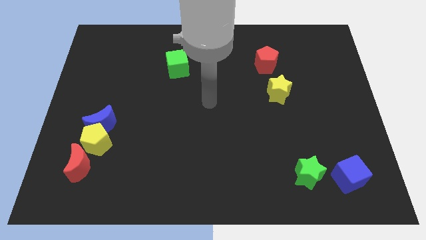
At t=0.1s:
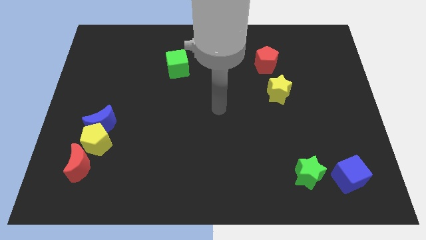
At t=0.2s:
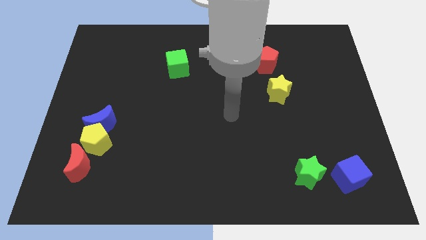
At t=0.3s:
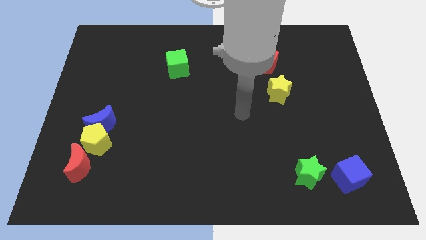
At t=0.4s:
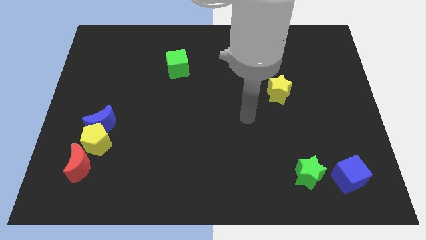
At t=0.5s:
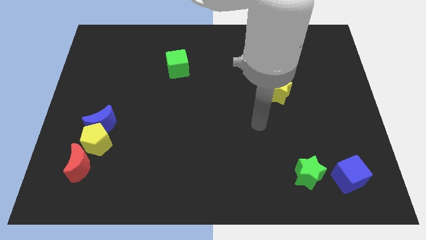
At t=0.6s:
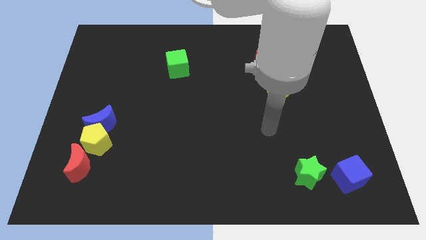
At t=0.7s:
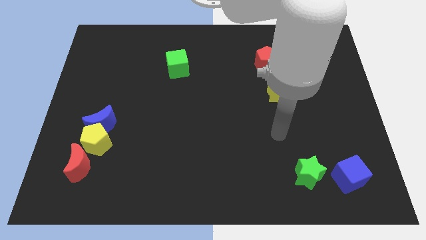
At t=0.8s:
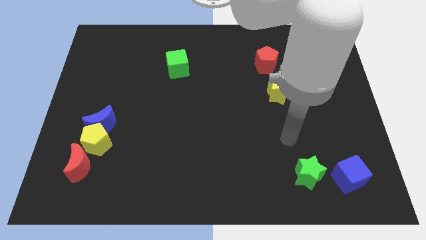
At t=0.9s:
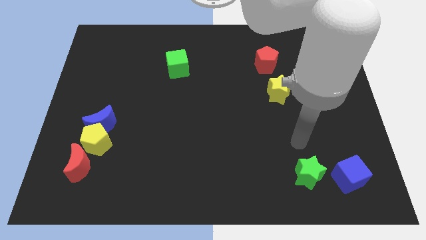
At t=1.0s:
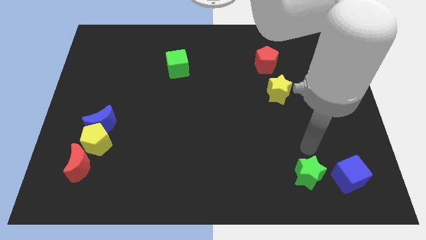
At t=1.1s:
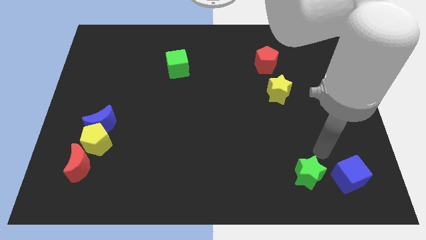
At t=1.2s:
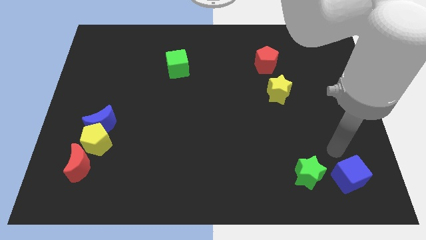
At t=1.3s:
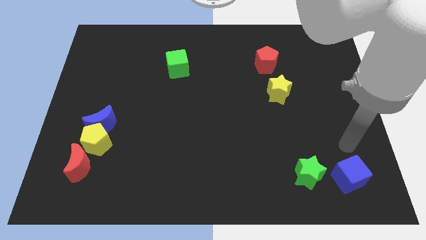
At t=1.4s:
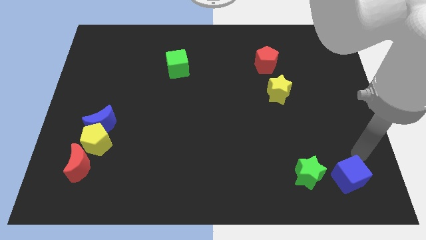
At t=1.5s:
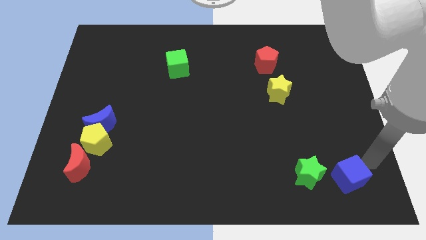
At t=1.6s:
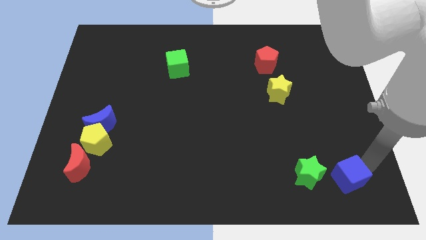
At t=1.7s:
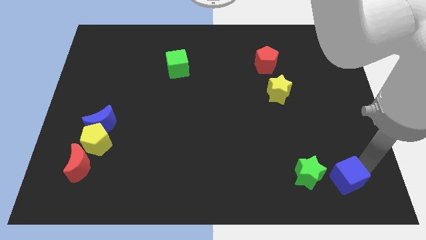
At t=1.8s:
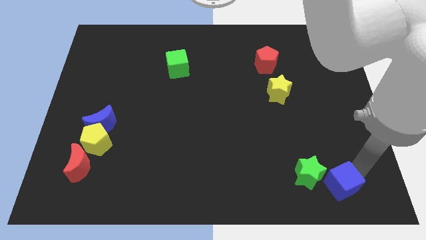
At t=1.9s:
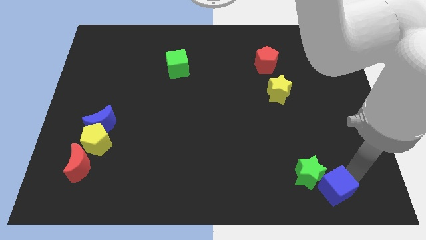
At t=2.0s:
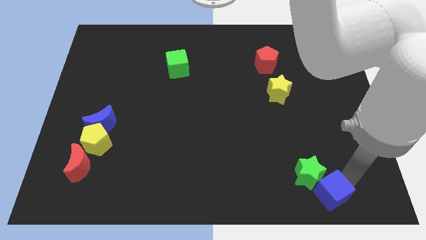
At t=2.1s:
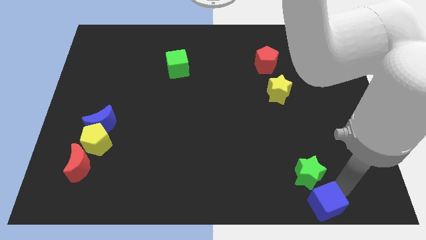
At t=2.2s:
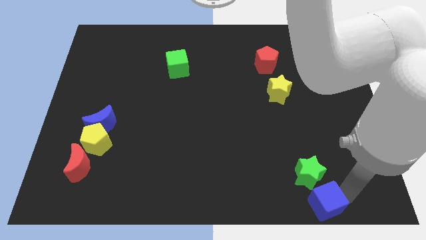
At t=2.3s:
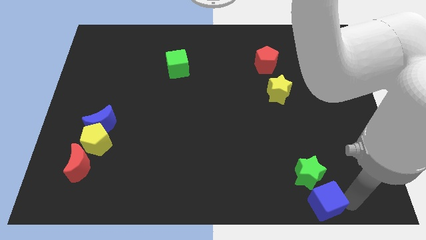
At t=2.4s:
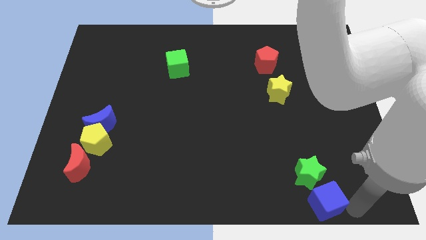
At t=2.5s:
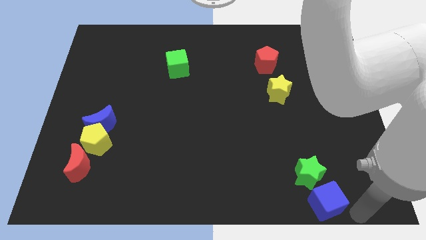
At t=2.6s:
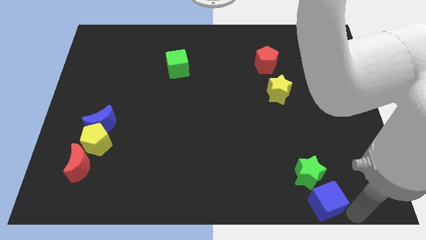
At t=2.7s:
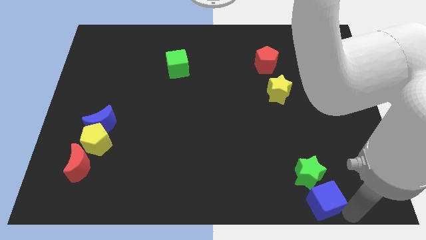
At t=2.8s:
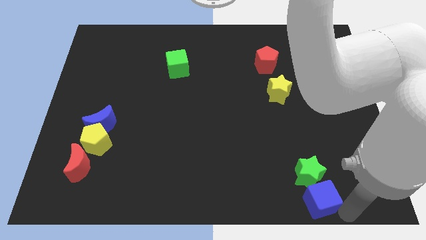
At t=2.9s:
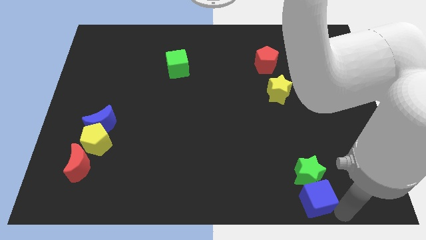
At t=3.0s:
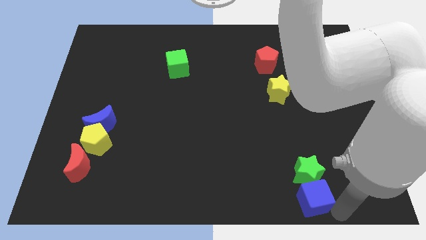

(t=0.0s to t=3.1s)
slightly move the blue cube to the left

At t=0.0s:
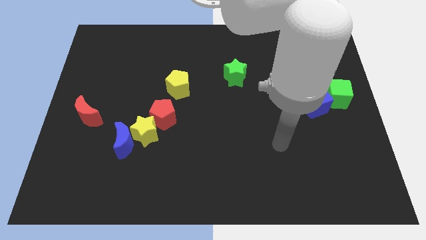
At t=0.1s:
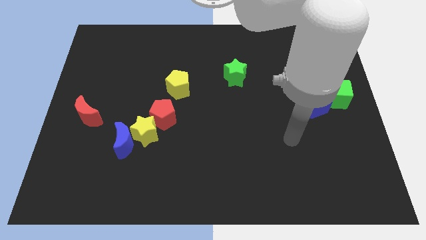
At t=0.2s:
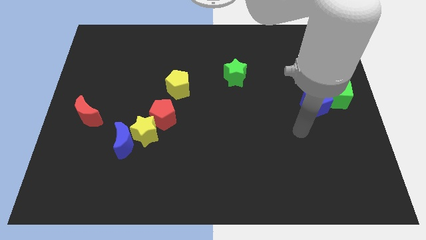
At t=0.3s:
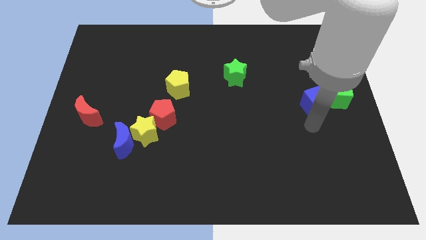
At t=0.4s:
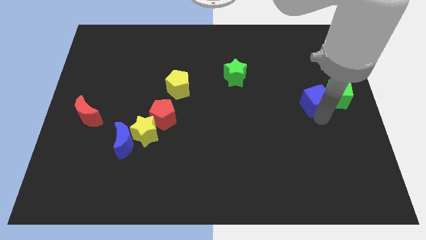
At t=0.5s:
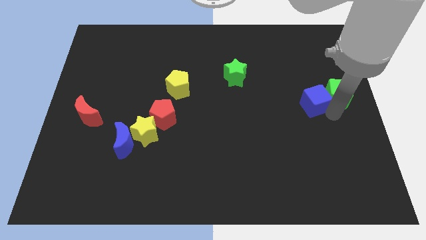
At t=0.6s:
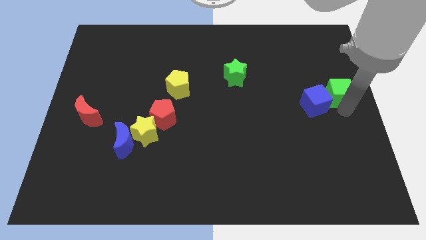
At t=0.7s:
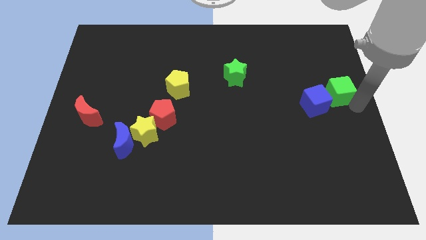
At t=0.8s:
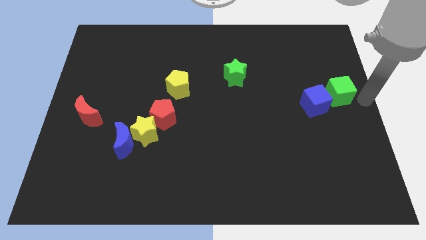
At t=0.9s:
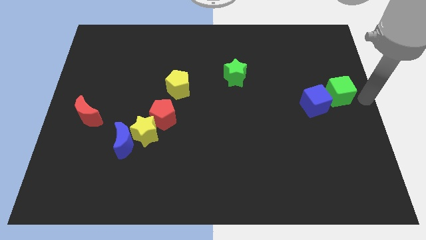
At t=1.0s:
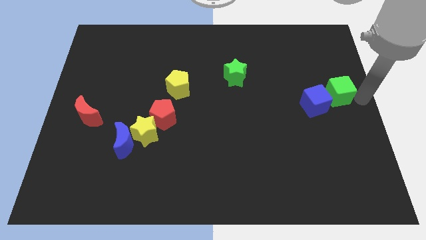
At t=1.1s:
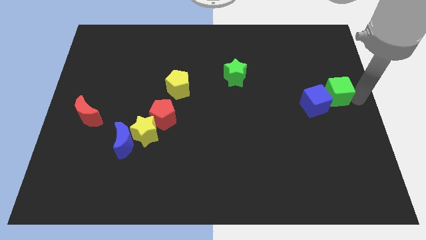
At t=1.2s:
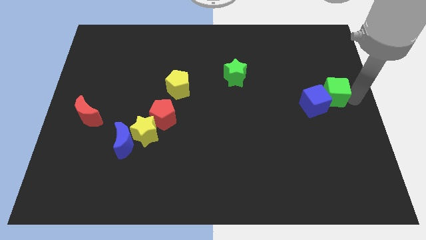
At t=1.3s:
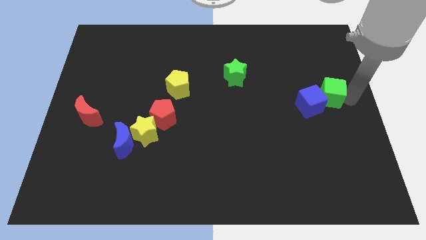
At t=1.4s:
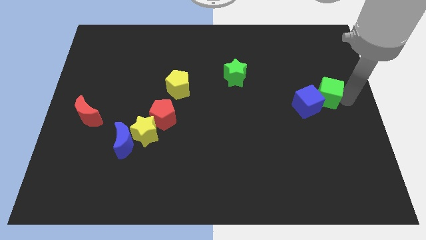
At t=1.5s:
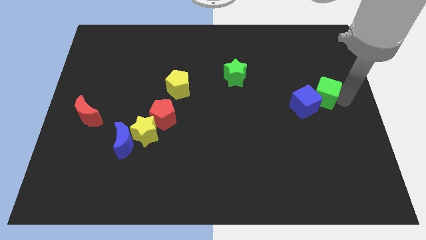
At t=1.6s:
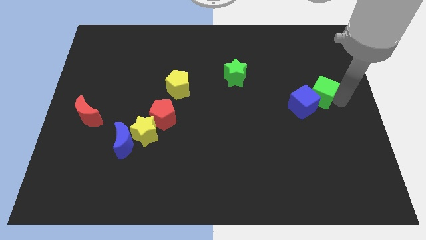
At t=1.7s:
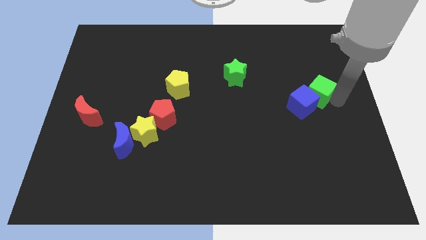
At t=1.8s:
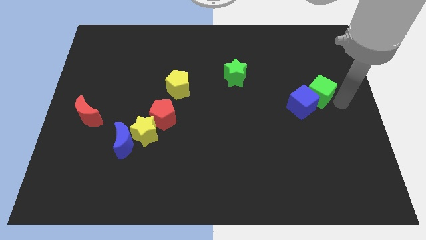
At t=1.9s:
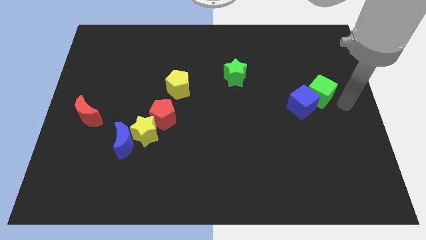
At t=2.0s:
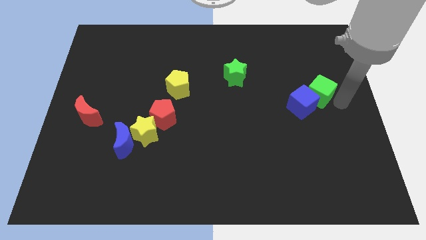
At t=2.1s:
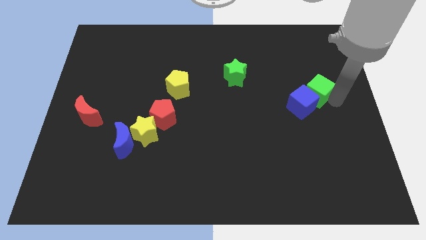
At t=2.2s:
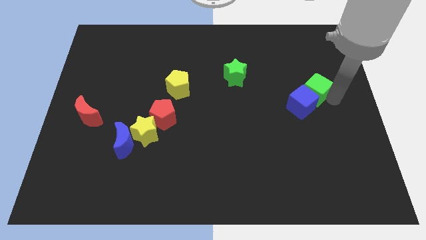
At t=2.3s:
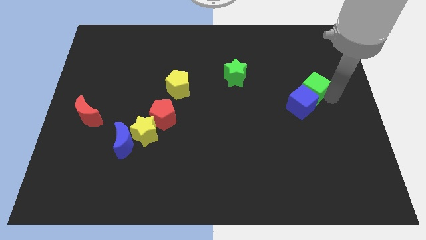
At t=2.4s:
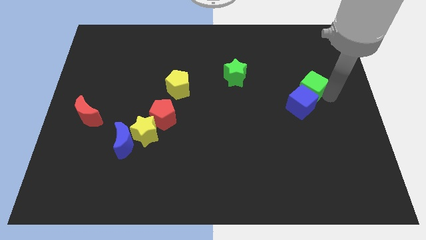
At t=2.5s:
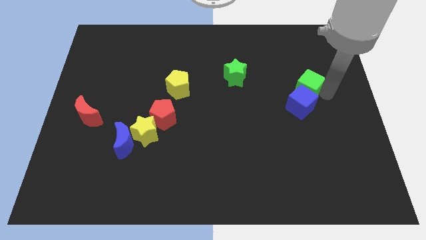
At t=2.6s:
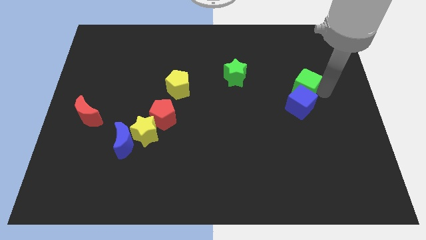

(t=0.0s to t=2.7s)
push the green cube left slightly

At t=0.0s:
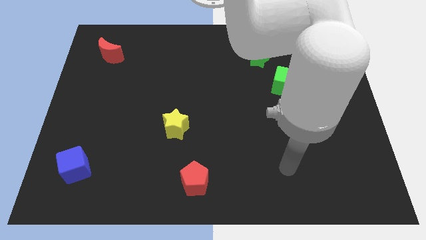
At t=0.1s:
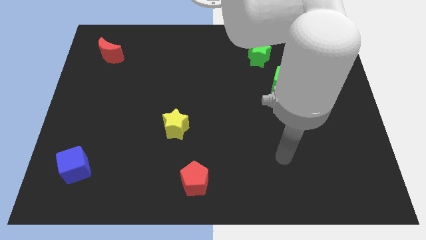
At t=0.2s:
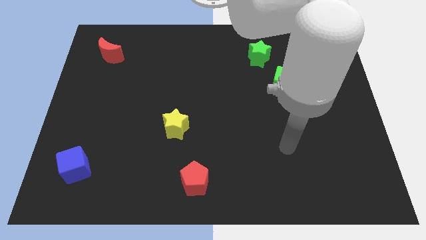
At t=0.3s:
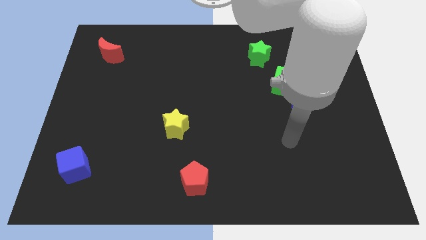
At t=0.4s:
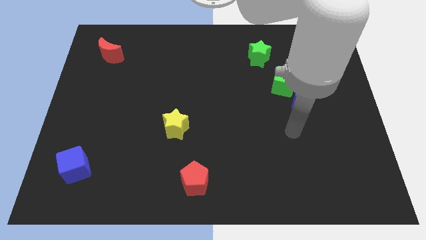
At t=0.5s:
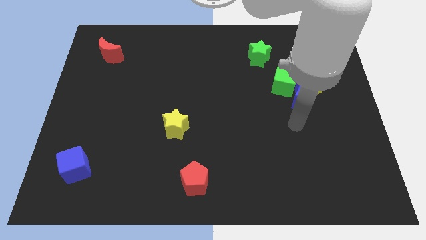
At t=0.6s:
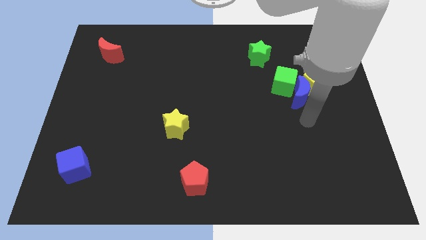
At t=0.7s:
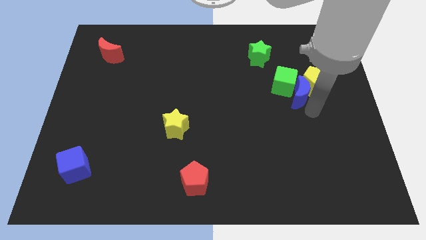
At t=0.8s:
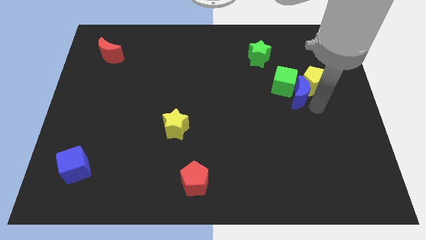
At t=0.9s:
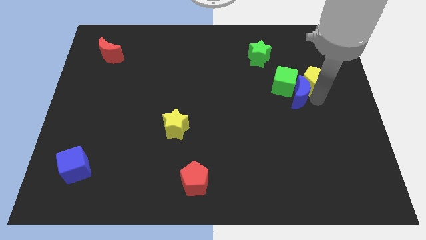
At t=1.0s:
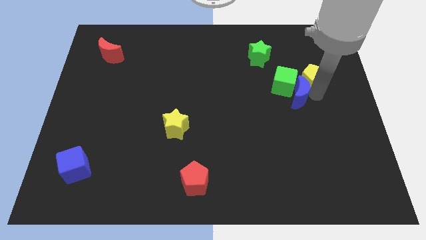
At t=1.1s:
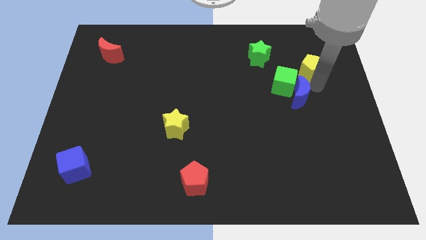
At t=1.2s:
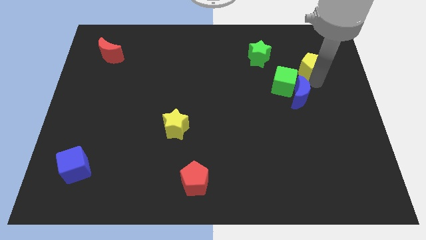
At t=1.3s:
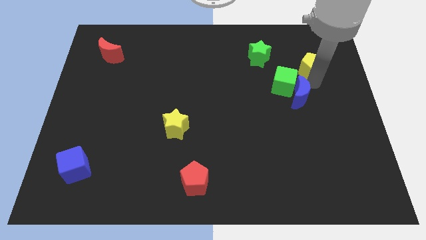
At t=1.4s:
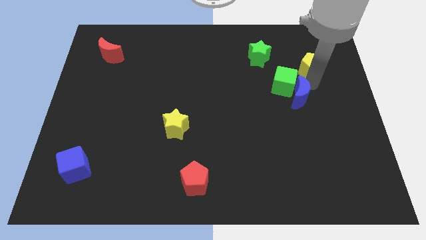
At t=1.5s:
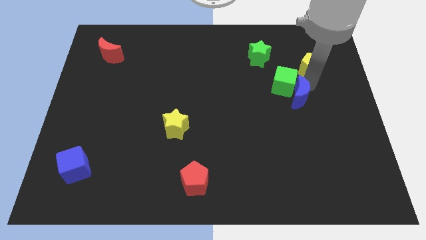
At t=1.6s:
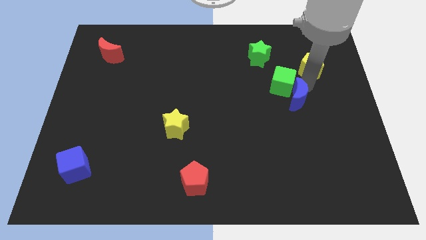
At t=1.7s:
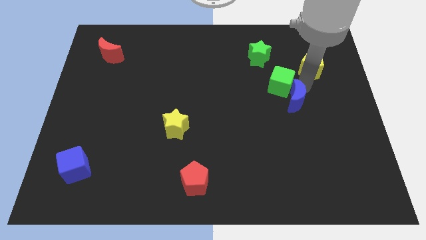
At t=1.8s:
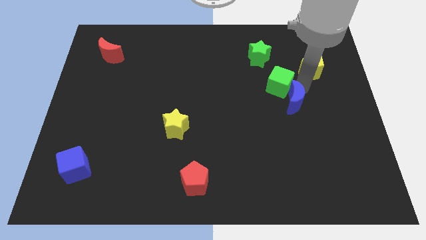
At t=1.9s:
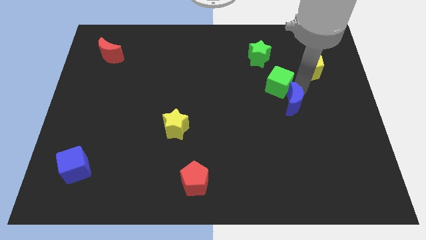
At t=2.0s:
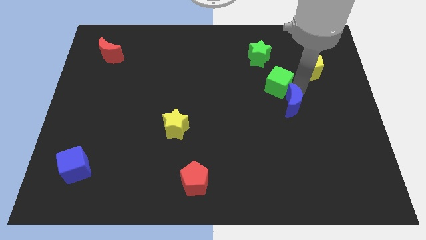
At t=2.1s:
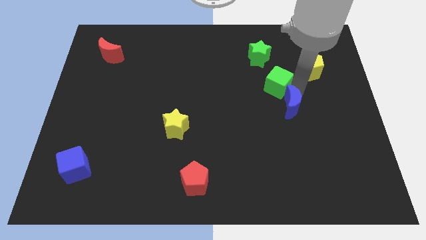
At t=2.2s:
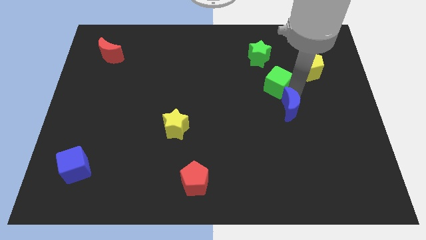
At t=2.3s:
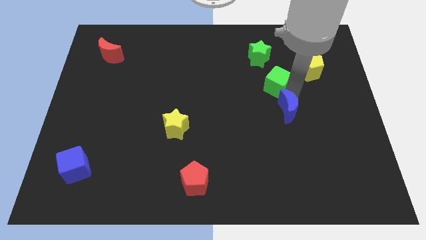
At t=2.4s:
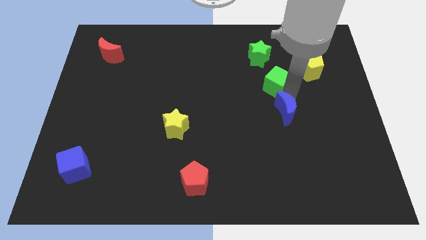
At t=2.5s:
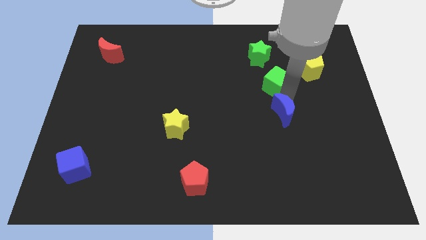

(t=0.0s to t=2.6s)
move the blue moon a little bit diagonally down and left
